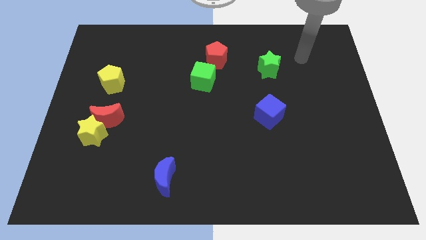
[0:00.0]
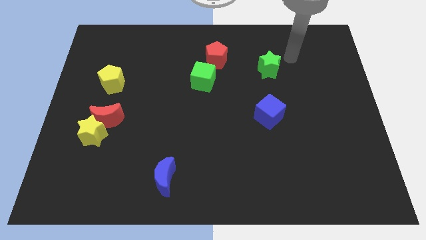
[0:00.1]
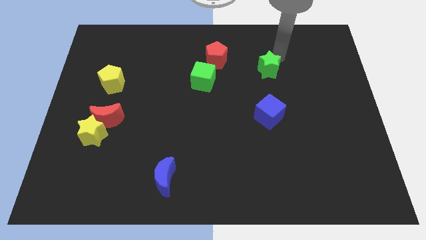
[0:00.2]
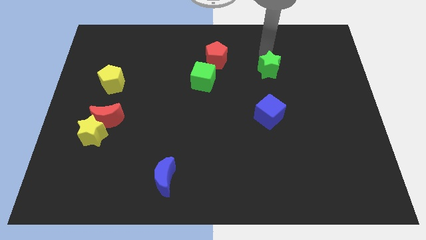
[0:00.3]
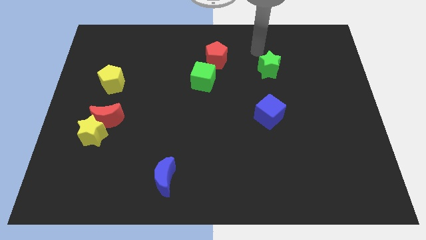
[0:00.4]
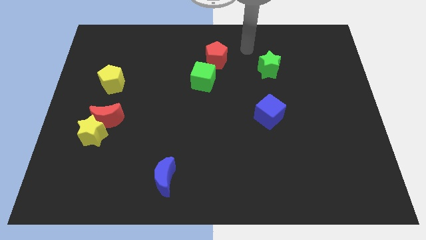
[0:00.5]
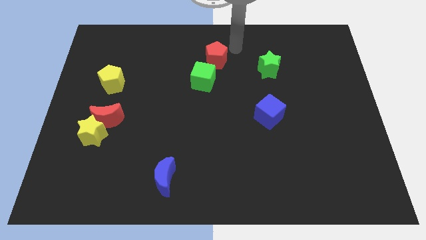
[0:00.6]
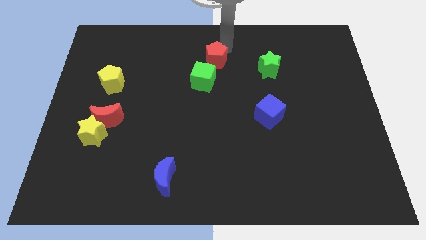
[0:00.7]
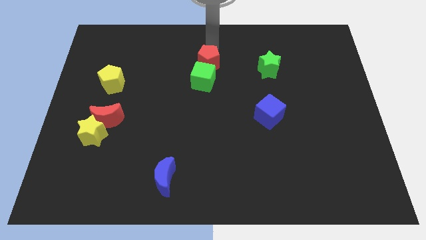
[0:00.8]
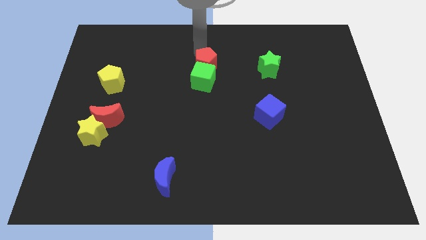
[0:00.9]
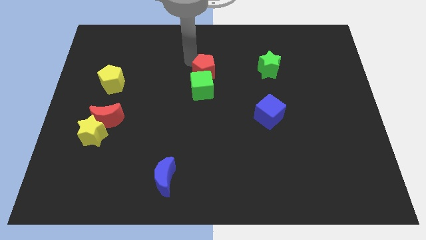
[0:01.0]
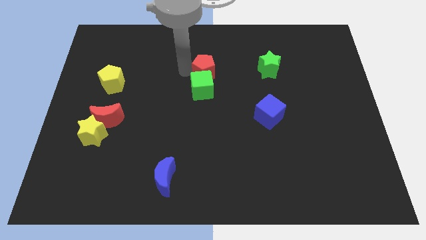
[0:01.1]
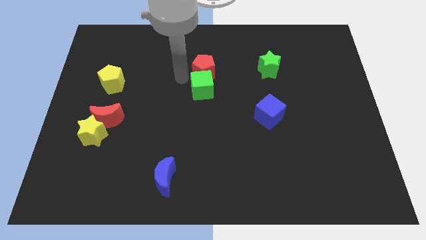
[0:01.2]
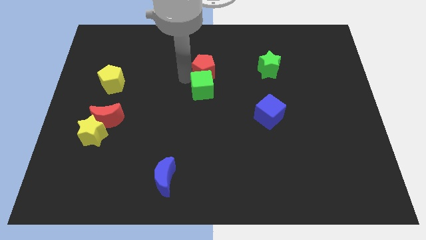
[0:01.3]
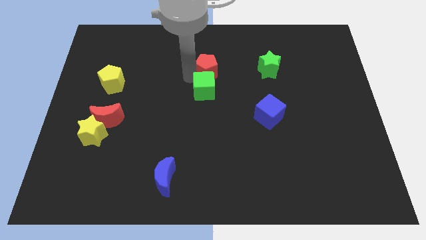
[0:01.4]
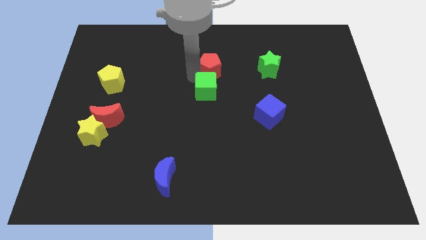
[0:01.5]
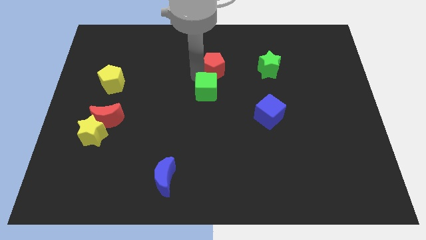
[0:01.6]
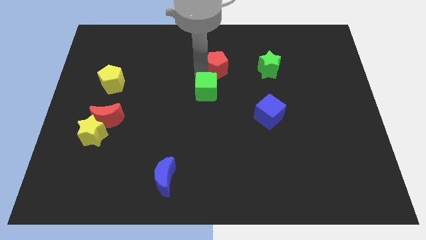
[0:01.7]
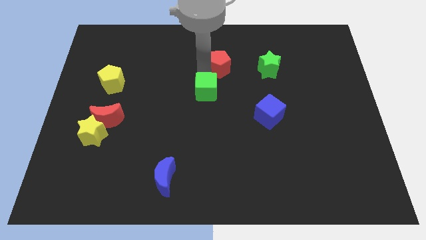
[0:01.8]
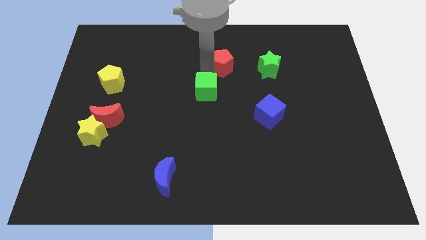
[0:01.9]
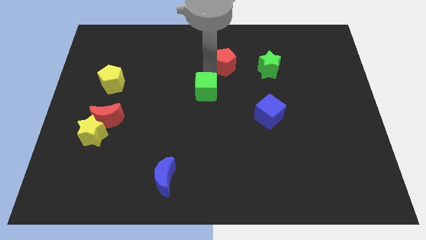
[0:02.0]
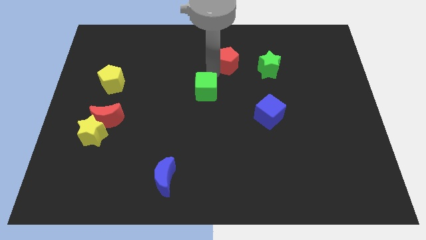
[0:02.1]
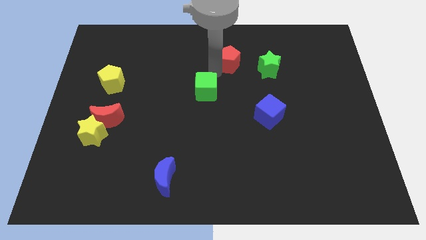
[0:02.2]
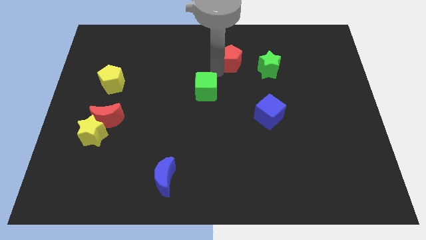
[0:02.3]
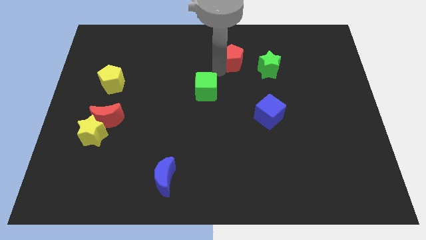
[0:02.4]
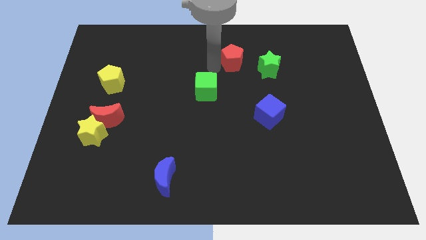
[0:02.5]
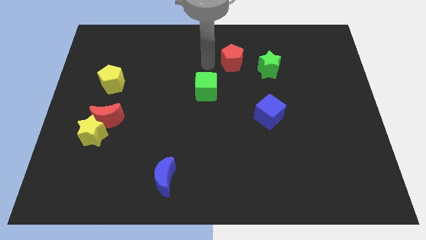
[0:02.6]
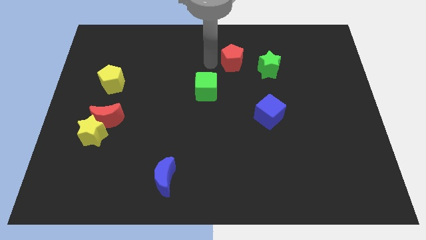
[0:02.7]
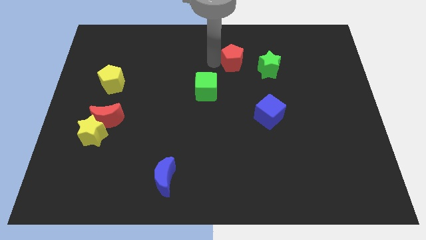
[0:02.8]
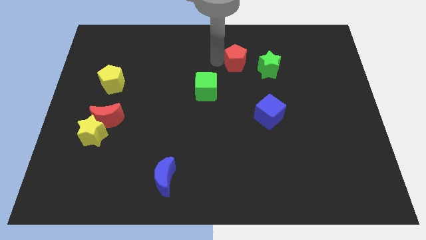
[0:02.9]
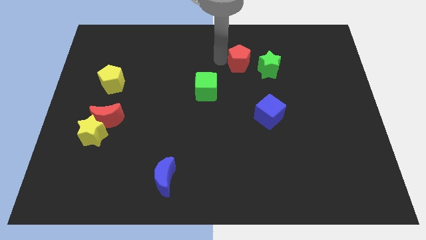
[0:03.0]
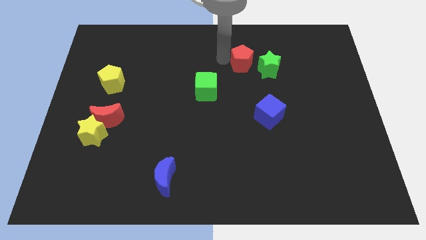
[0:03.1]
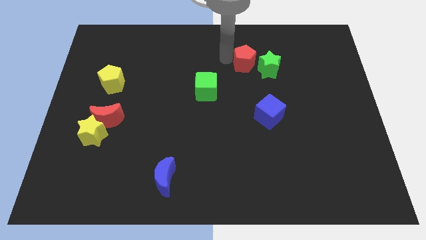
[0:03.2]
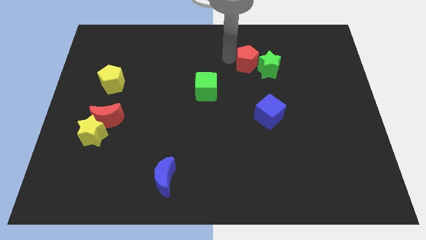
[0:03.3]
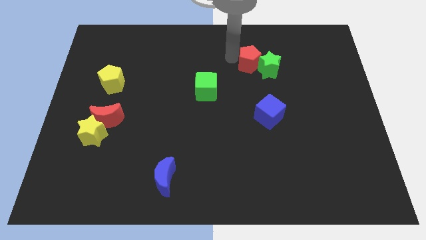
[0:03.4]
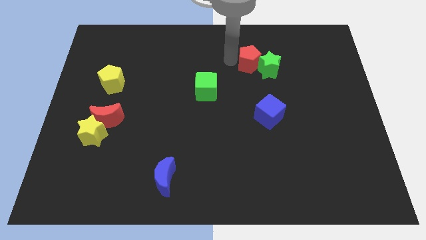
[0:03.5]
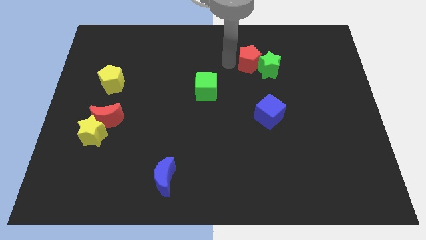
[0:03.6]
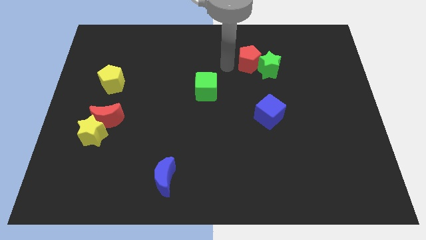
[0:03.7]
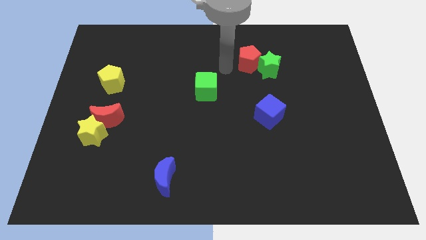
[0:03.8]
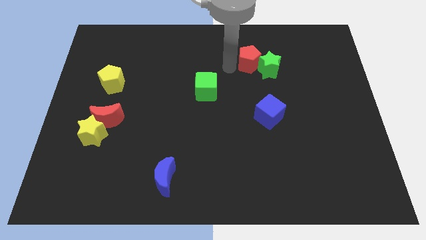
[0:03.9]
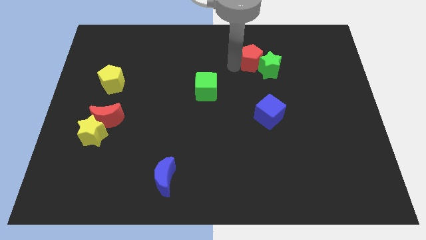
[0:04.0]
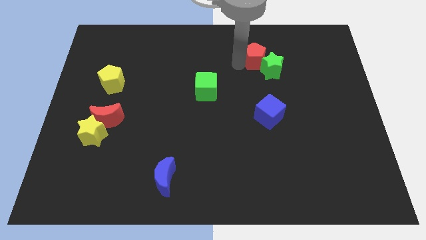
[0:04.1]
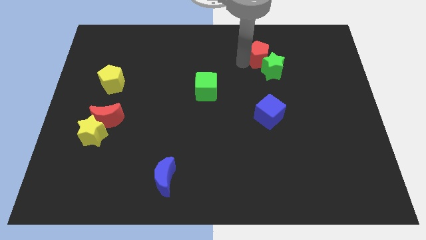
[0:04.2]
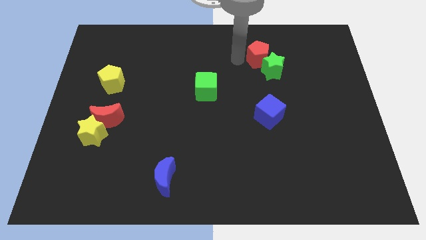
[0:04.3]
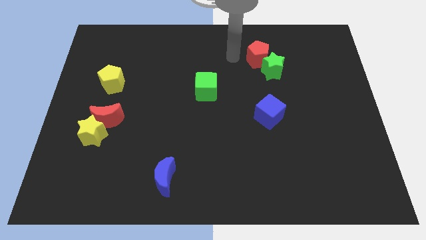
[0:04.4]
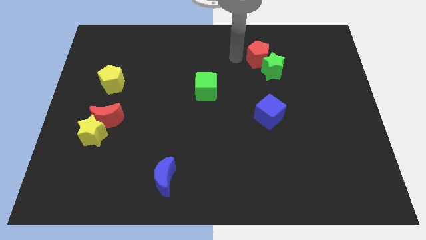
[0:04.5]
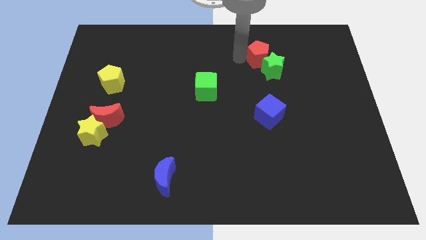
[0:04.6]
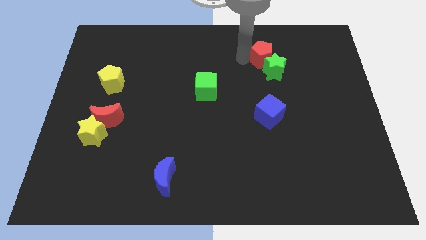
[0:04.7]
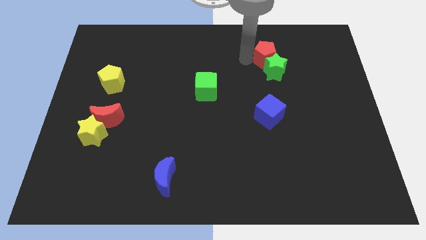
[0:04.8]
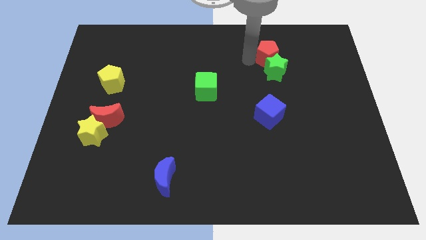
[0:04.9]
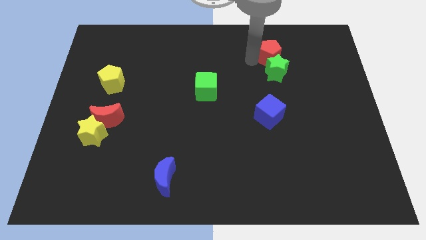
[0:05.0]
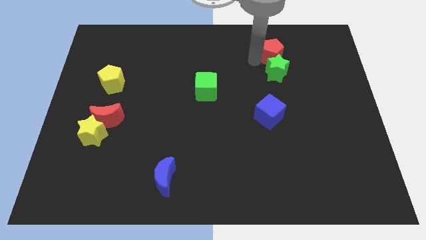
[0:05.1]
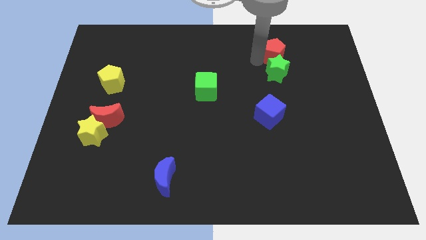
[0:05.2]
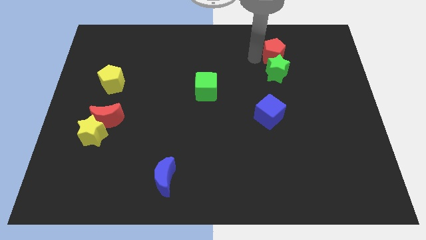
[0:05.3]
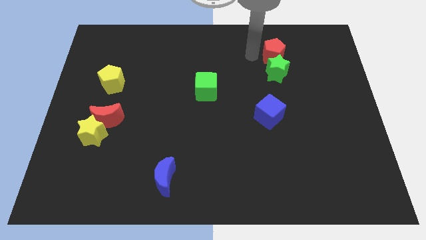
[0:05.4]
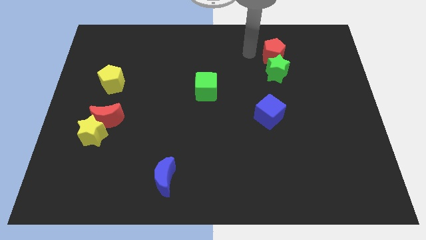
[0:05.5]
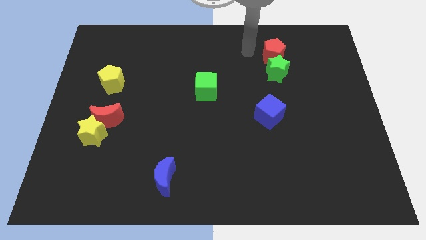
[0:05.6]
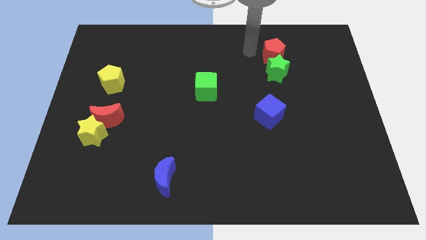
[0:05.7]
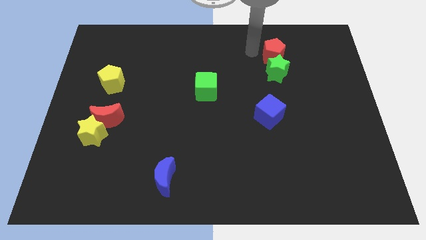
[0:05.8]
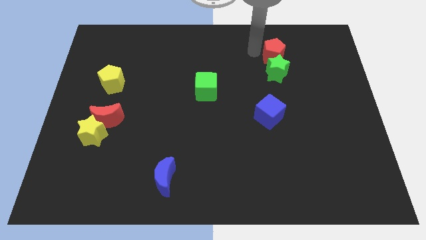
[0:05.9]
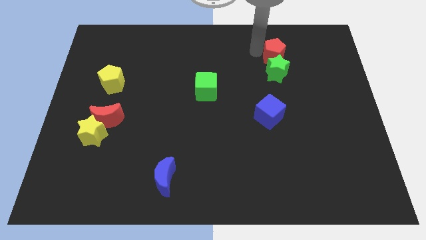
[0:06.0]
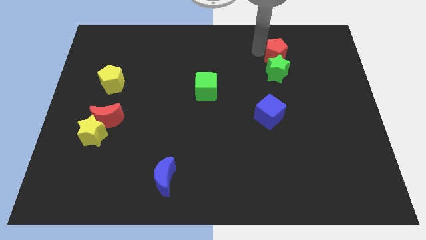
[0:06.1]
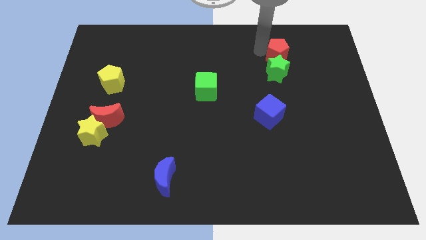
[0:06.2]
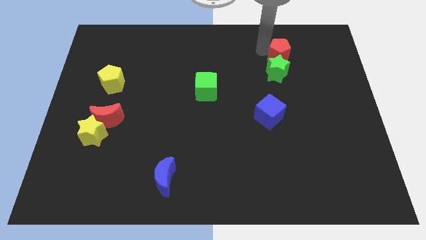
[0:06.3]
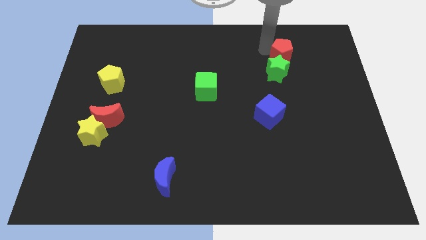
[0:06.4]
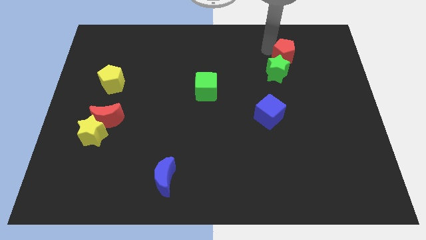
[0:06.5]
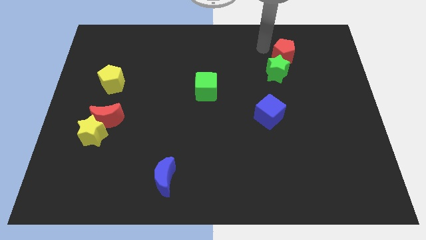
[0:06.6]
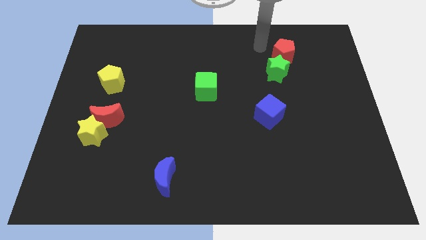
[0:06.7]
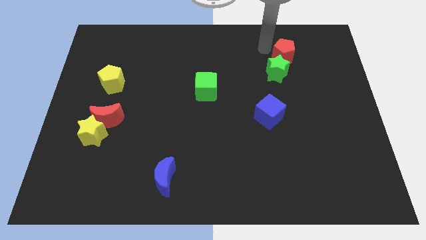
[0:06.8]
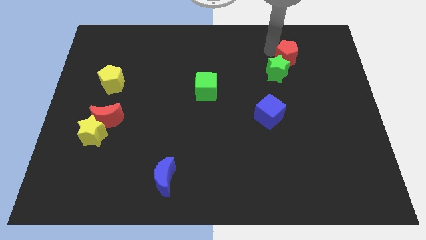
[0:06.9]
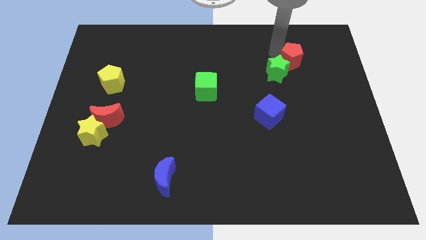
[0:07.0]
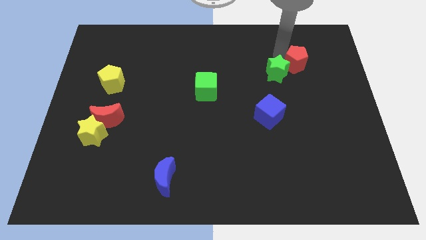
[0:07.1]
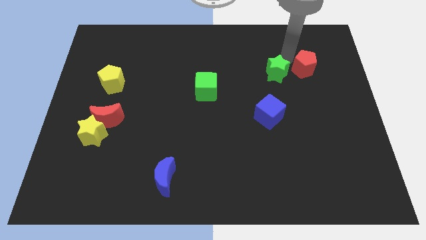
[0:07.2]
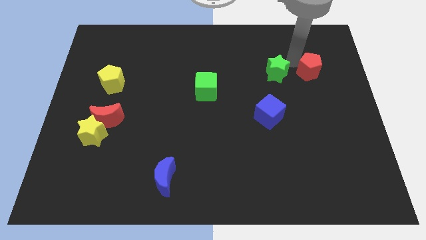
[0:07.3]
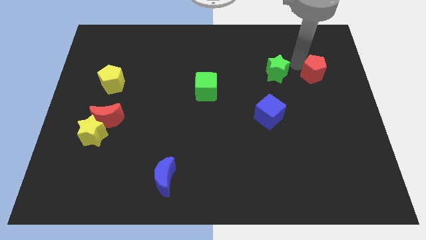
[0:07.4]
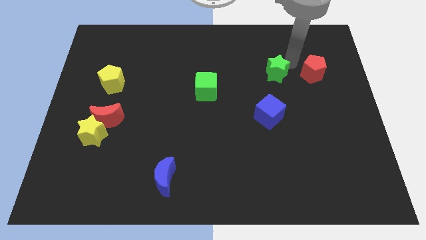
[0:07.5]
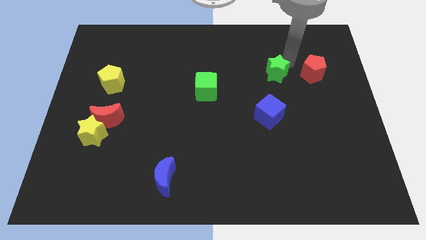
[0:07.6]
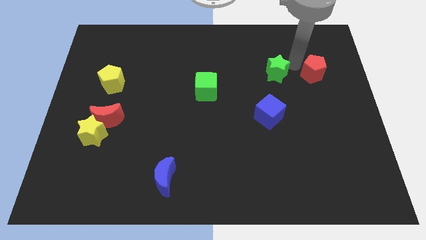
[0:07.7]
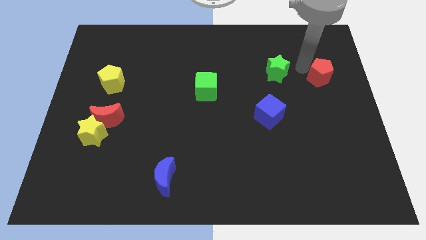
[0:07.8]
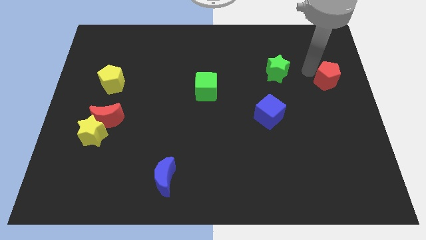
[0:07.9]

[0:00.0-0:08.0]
push the red pentagon to the right side
